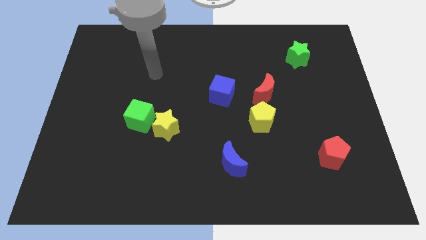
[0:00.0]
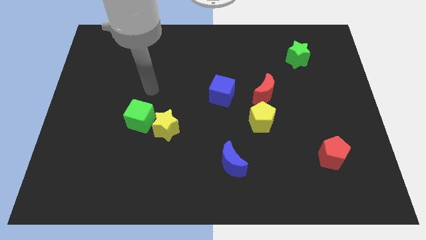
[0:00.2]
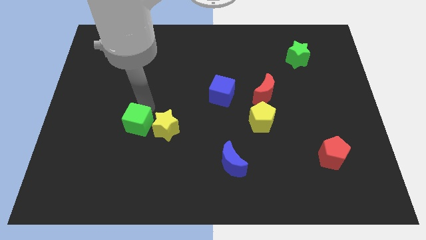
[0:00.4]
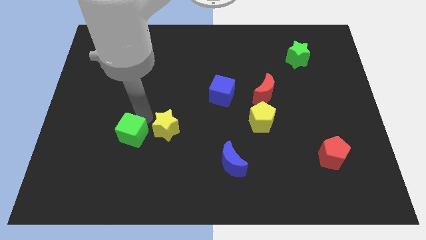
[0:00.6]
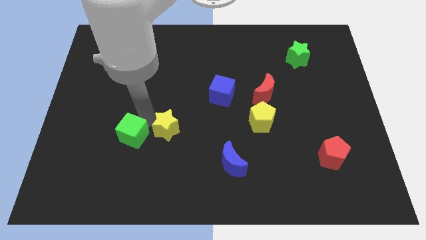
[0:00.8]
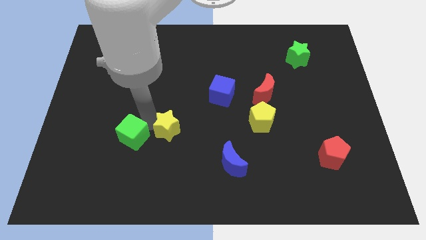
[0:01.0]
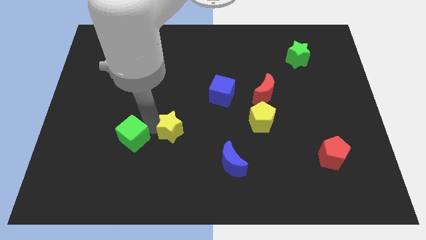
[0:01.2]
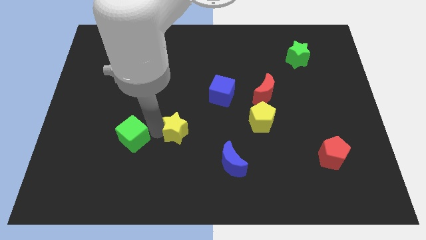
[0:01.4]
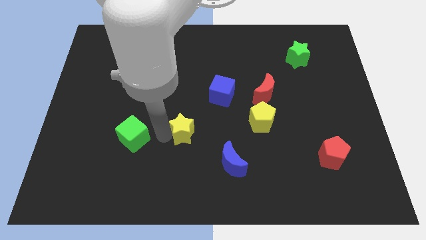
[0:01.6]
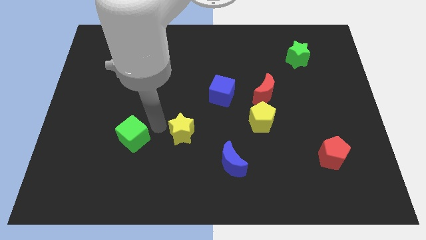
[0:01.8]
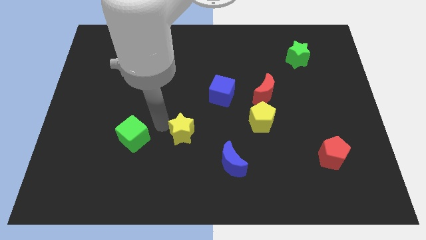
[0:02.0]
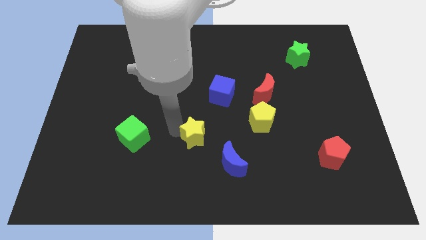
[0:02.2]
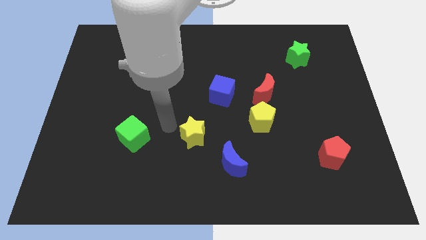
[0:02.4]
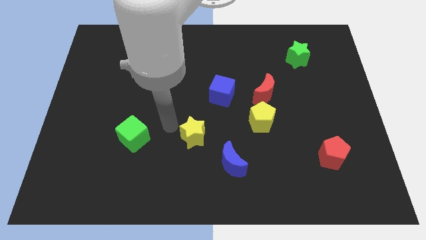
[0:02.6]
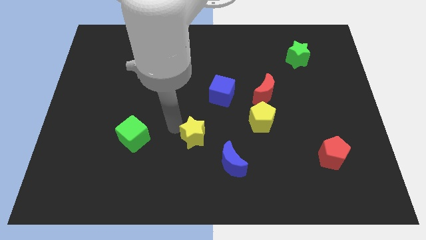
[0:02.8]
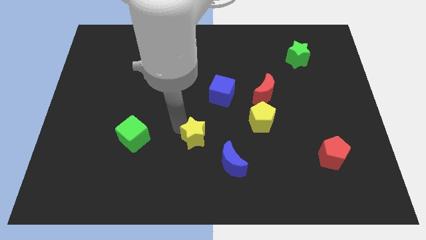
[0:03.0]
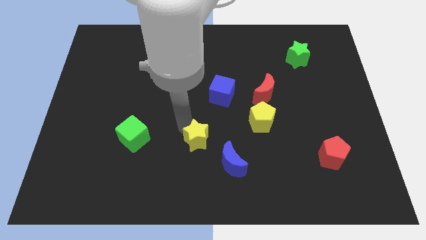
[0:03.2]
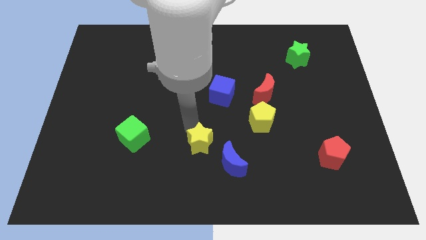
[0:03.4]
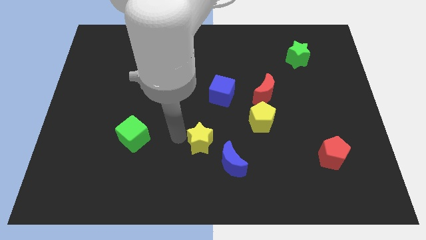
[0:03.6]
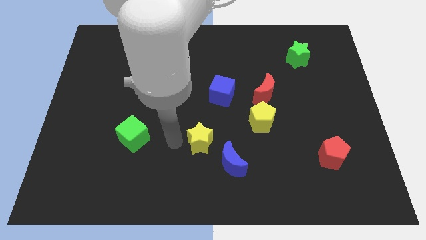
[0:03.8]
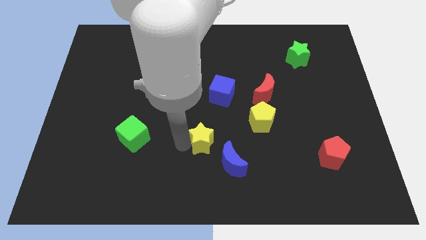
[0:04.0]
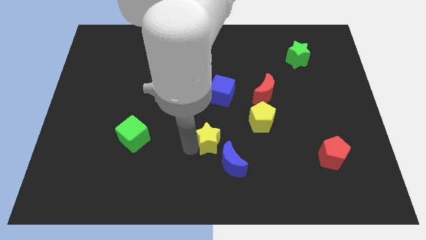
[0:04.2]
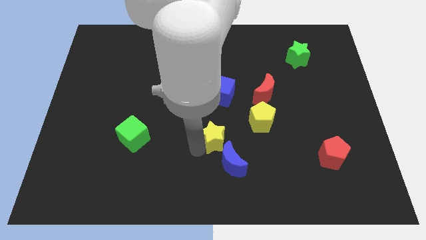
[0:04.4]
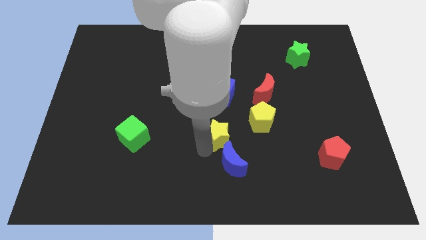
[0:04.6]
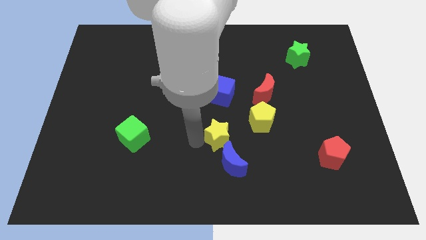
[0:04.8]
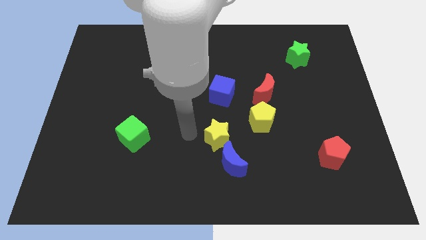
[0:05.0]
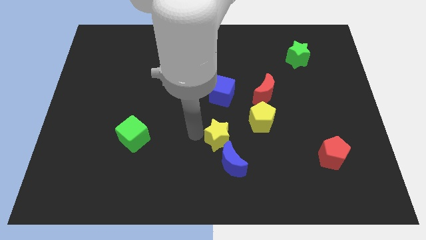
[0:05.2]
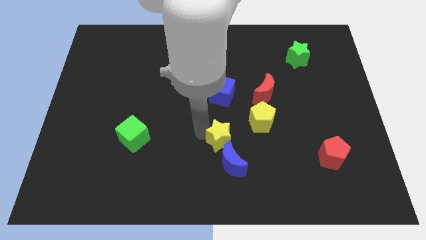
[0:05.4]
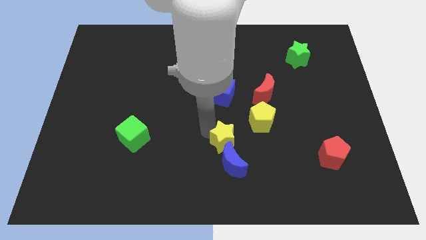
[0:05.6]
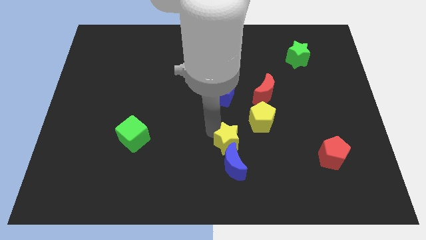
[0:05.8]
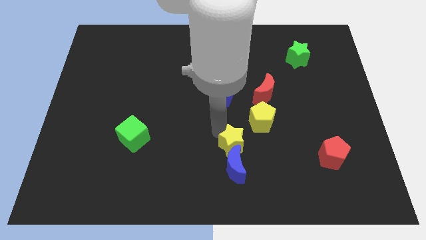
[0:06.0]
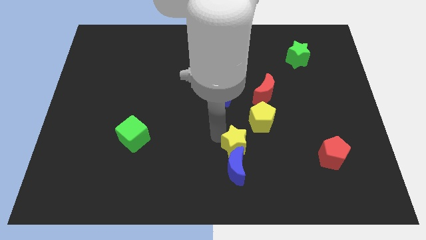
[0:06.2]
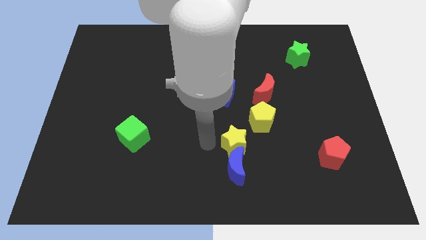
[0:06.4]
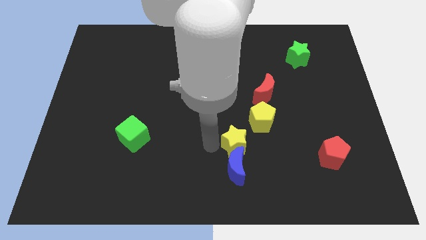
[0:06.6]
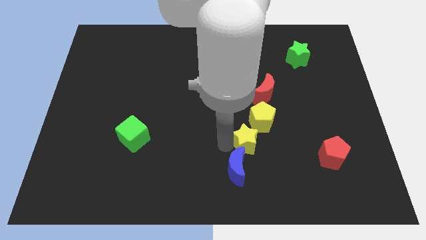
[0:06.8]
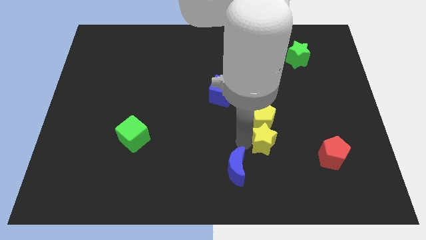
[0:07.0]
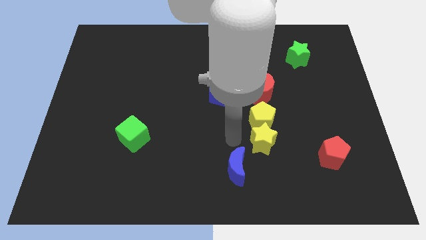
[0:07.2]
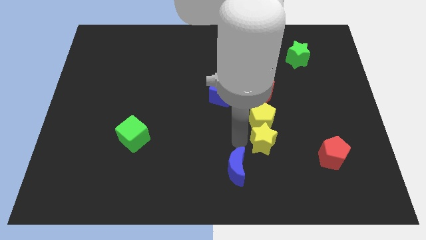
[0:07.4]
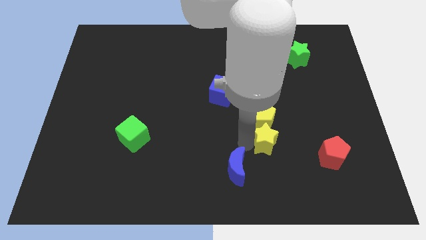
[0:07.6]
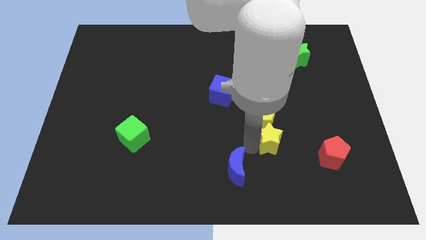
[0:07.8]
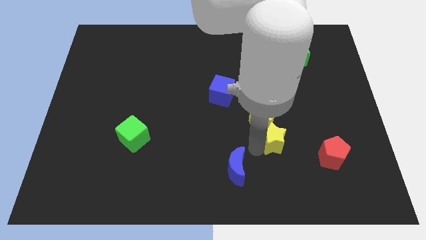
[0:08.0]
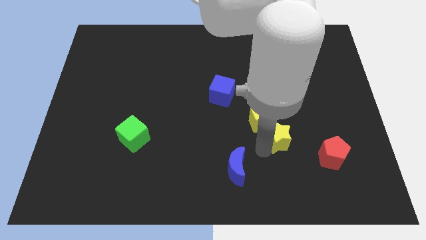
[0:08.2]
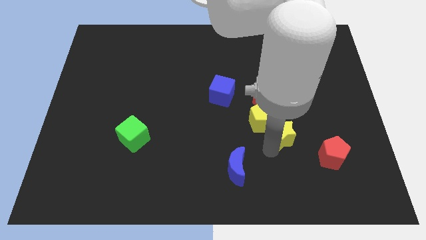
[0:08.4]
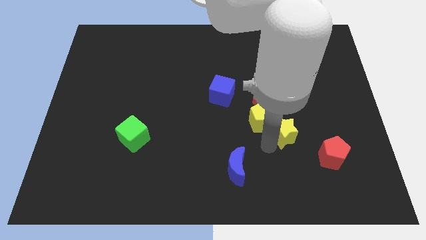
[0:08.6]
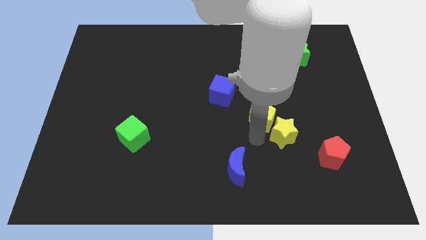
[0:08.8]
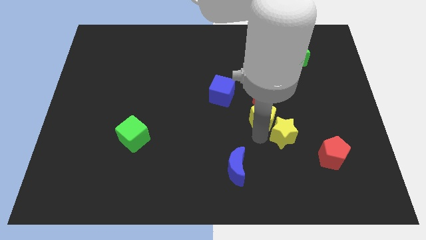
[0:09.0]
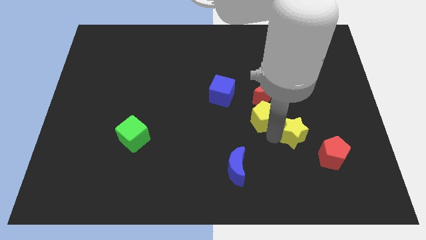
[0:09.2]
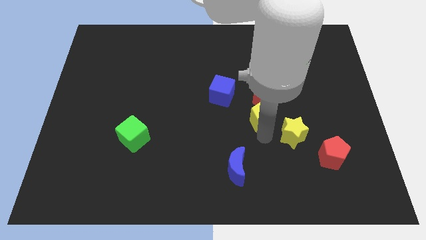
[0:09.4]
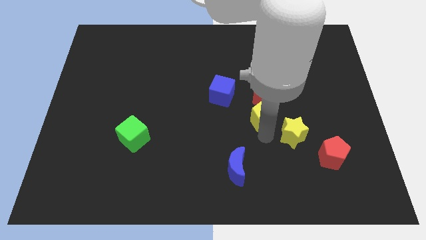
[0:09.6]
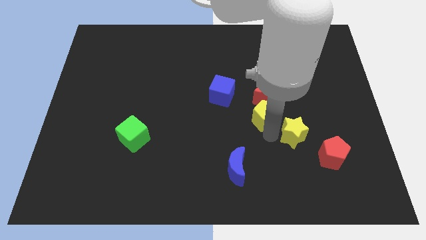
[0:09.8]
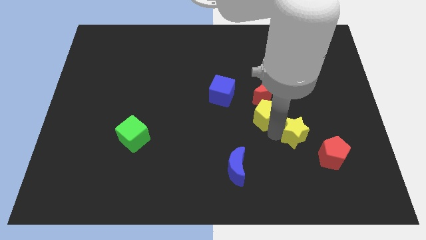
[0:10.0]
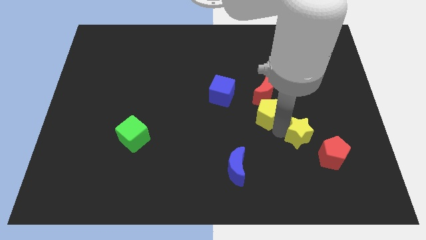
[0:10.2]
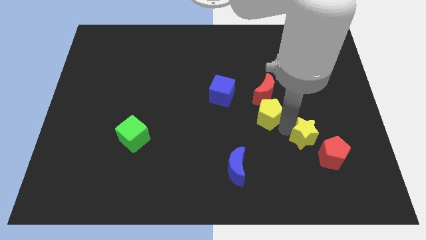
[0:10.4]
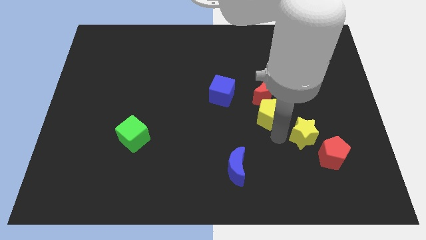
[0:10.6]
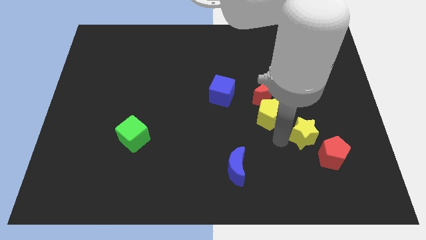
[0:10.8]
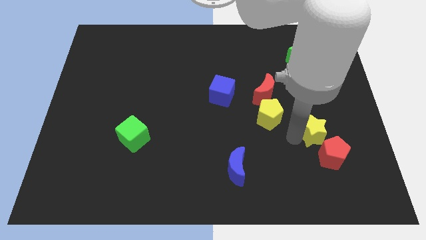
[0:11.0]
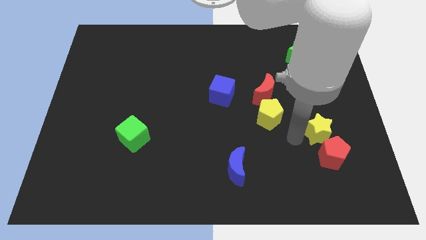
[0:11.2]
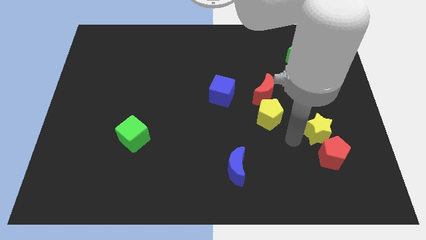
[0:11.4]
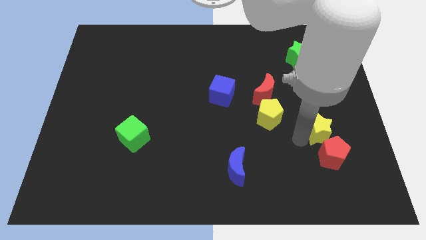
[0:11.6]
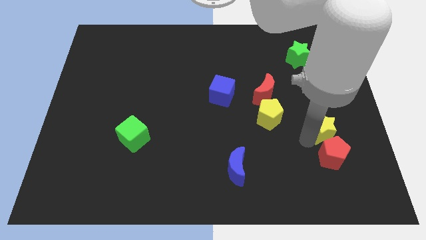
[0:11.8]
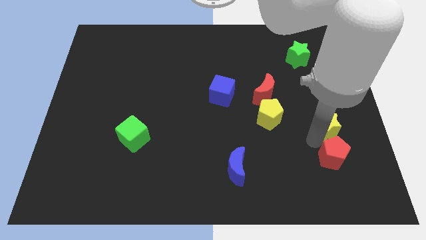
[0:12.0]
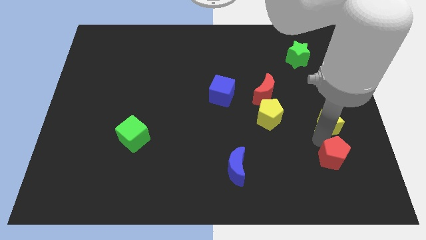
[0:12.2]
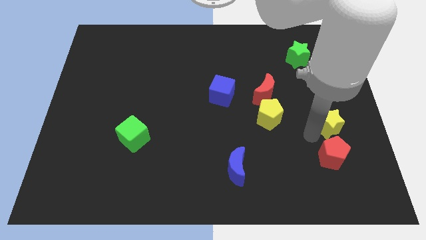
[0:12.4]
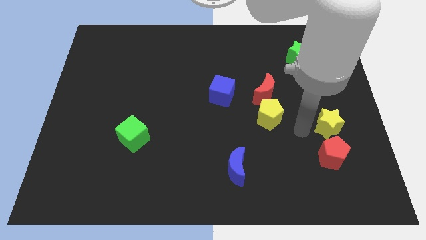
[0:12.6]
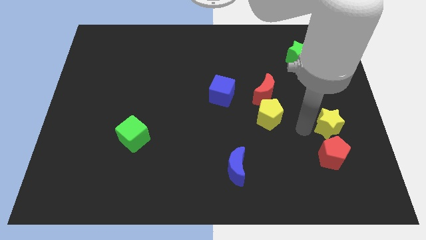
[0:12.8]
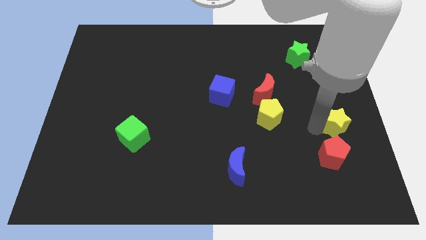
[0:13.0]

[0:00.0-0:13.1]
move the yellow star to the right side of the board
